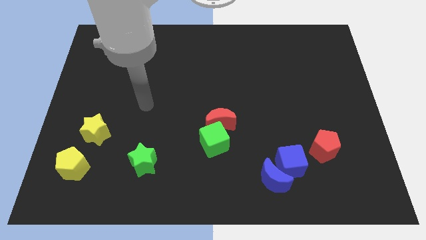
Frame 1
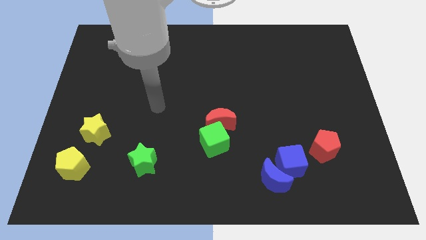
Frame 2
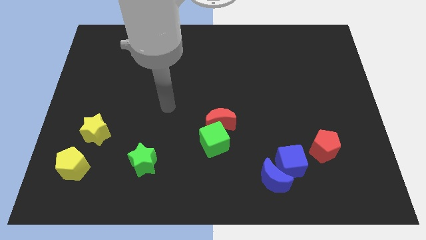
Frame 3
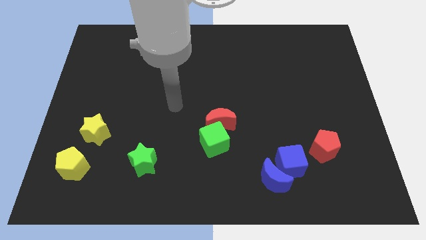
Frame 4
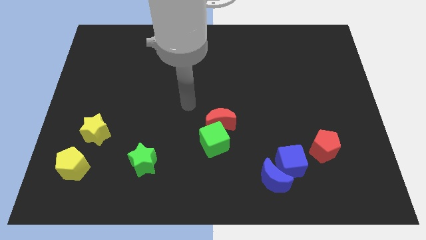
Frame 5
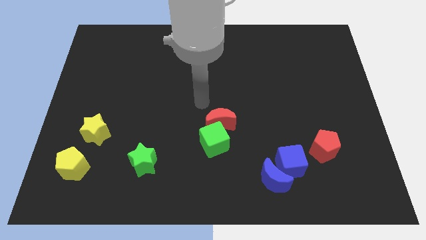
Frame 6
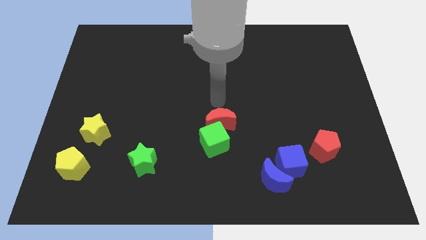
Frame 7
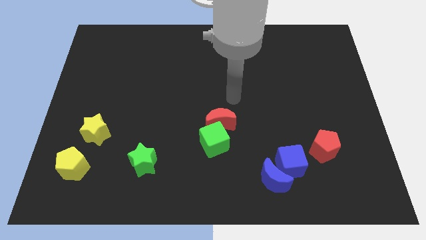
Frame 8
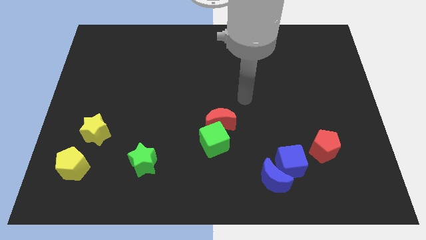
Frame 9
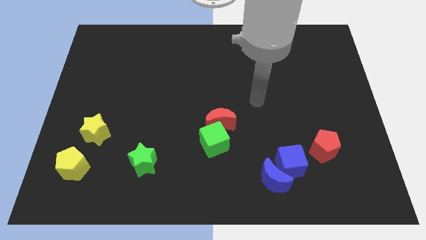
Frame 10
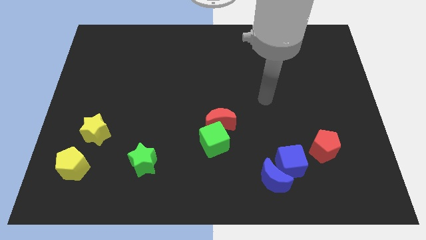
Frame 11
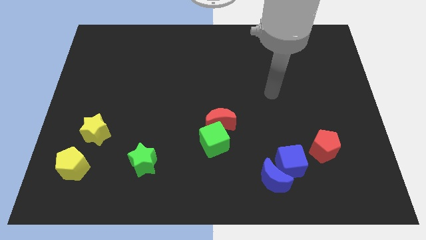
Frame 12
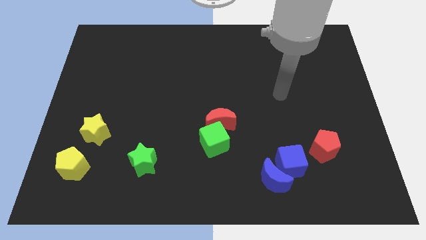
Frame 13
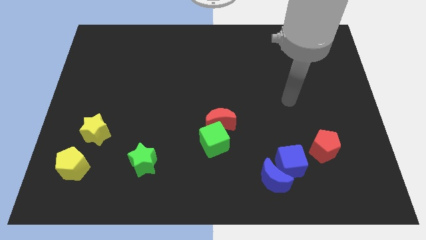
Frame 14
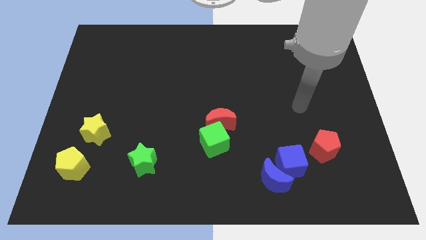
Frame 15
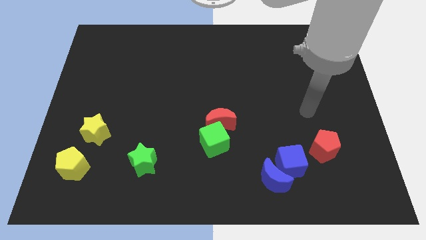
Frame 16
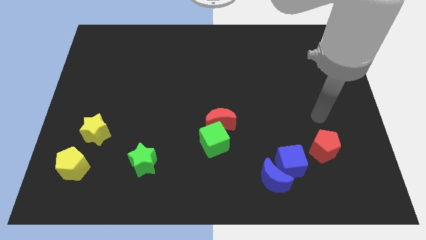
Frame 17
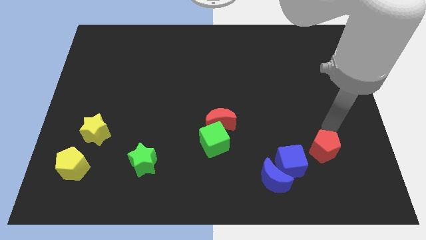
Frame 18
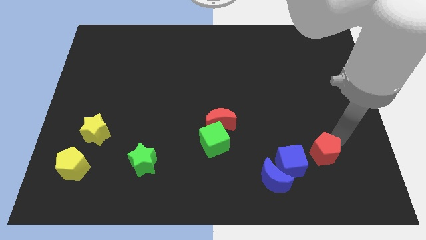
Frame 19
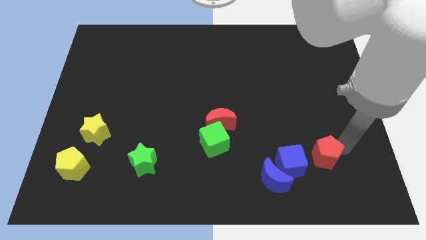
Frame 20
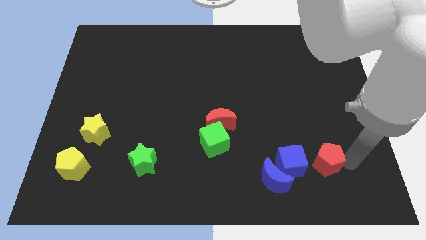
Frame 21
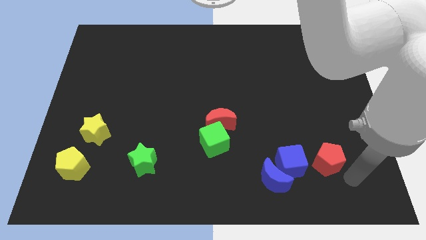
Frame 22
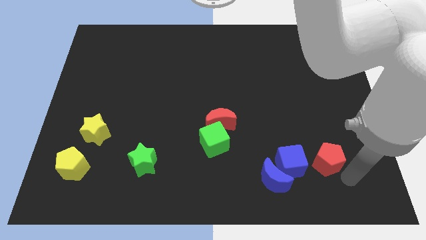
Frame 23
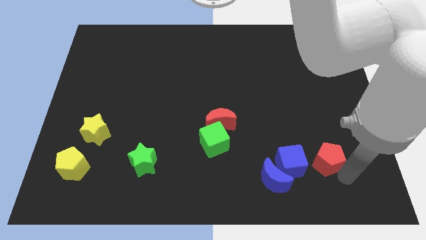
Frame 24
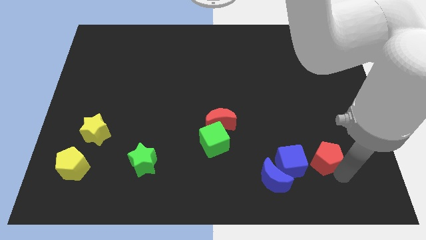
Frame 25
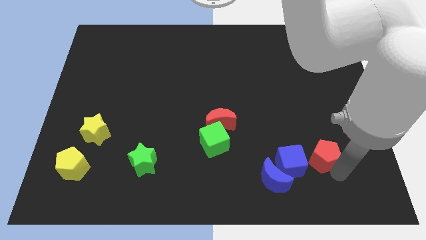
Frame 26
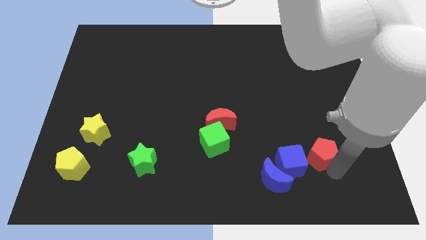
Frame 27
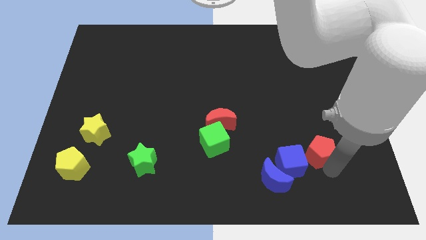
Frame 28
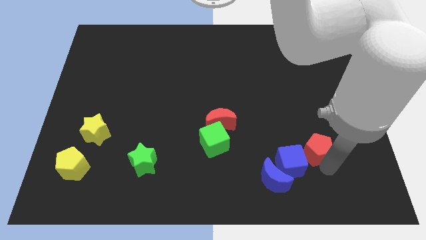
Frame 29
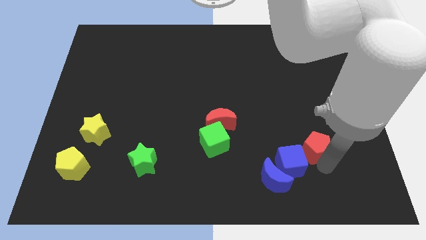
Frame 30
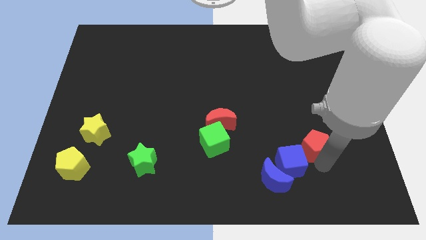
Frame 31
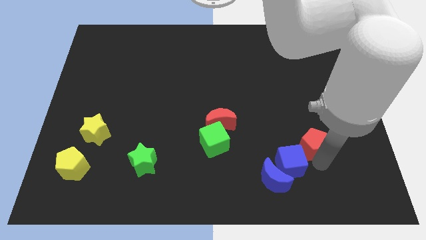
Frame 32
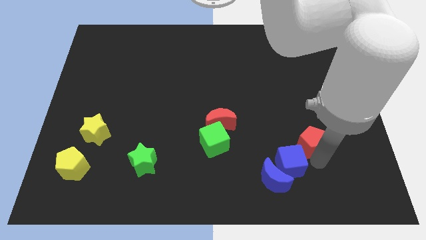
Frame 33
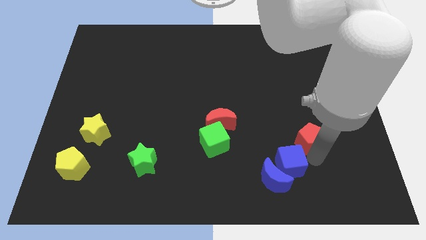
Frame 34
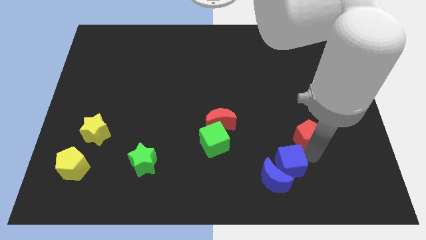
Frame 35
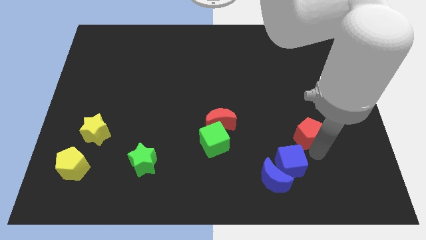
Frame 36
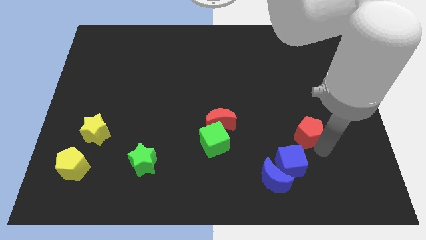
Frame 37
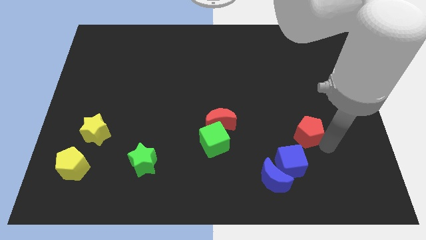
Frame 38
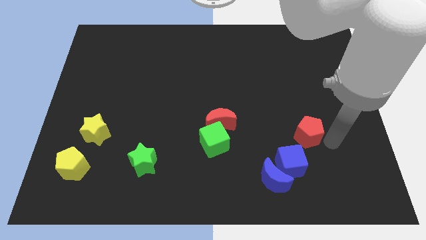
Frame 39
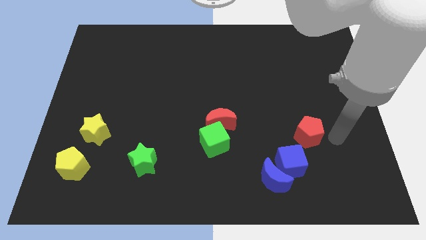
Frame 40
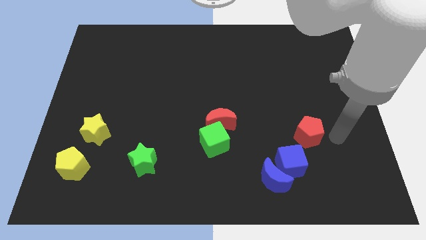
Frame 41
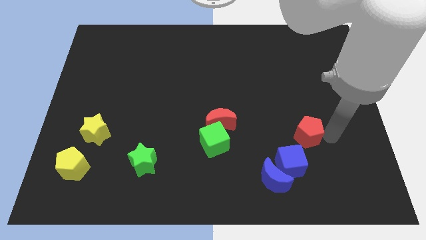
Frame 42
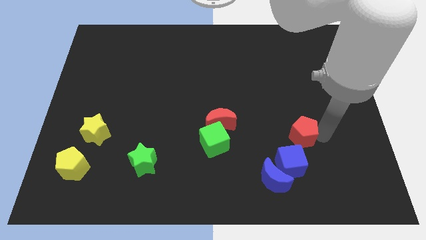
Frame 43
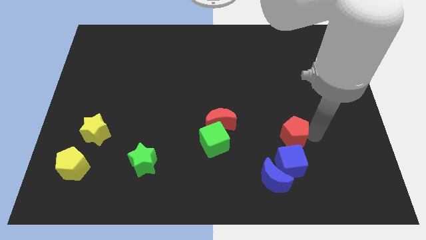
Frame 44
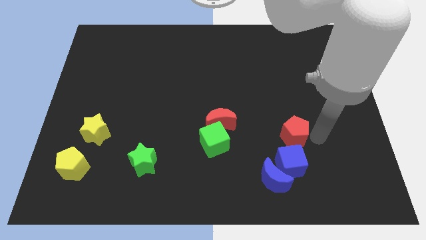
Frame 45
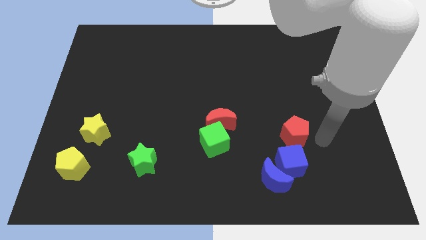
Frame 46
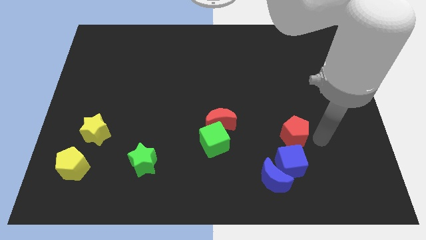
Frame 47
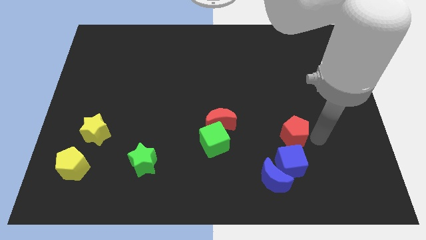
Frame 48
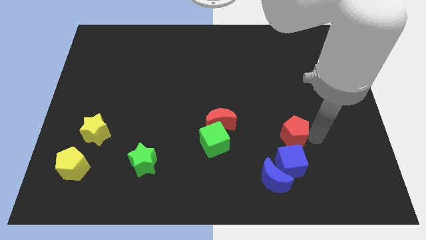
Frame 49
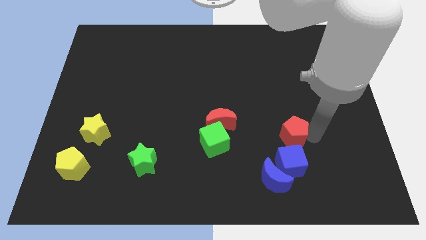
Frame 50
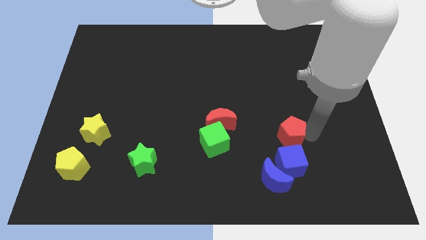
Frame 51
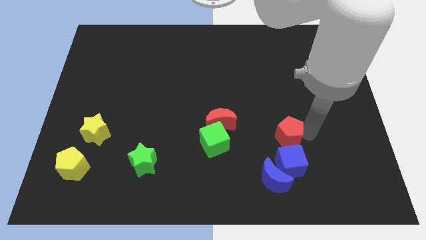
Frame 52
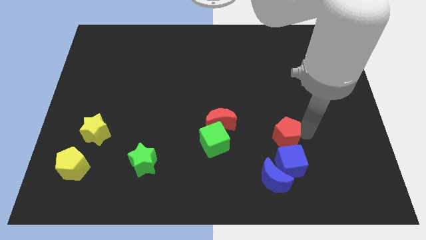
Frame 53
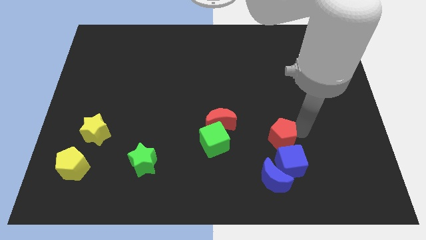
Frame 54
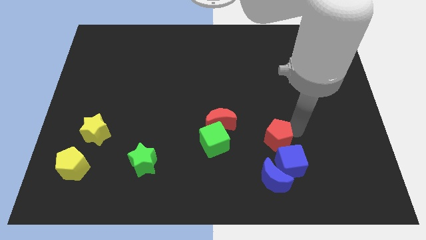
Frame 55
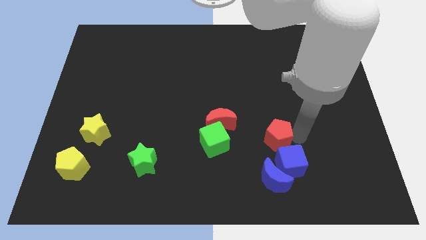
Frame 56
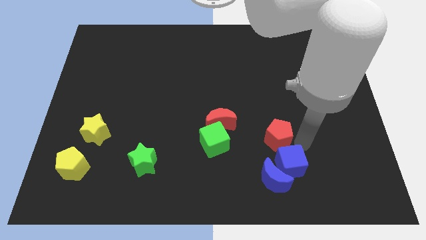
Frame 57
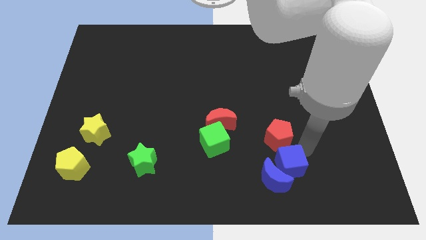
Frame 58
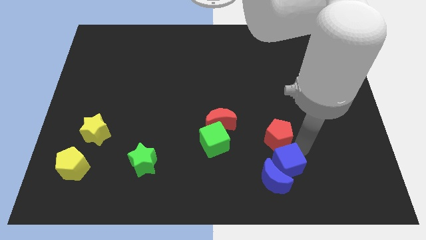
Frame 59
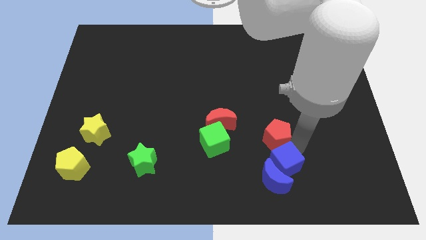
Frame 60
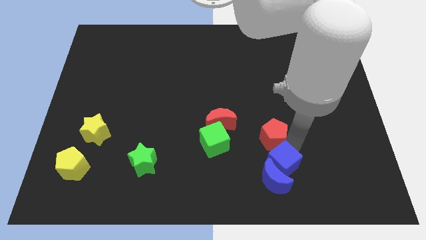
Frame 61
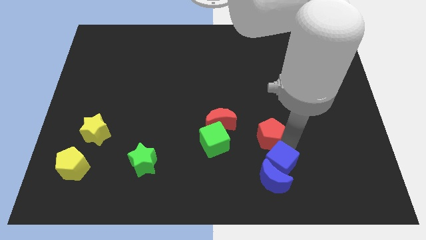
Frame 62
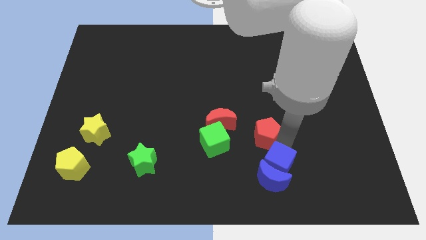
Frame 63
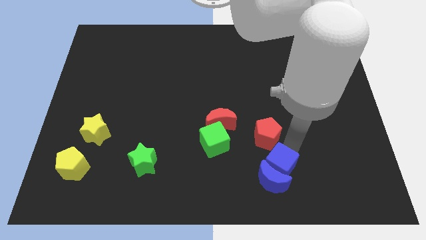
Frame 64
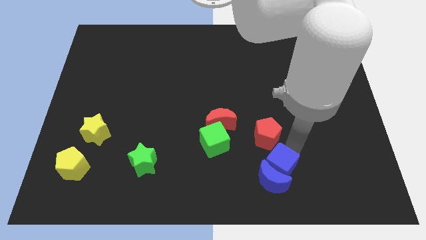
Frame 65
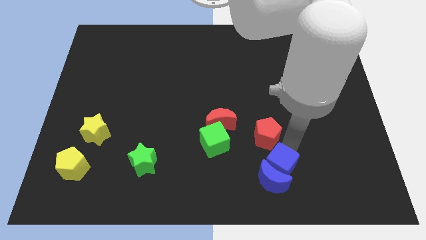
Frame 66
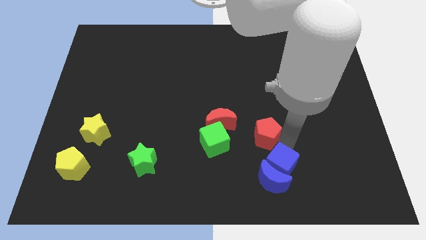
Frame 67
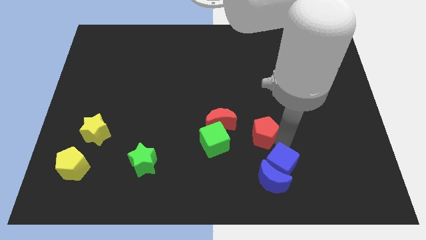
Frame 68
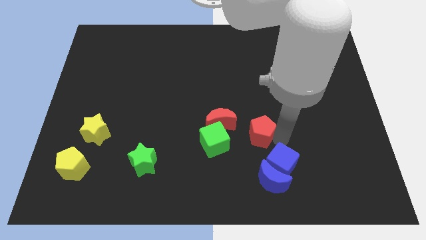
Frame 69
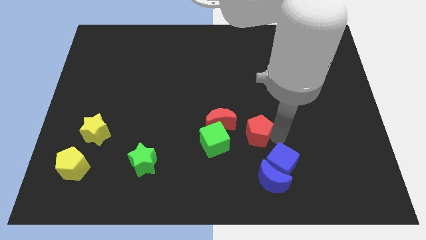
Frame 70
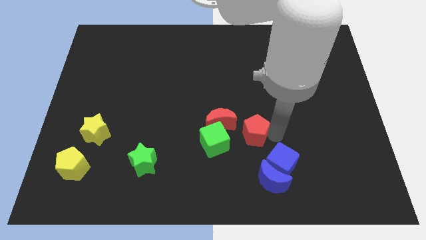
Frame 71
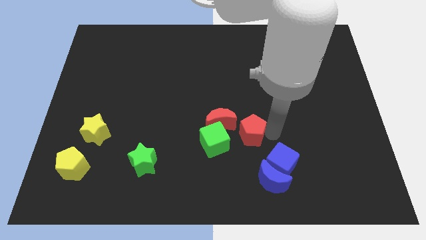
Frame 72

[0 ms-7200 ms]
move the red pentagon to the center of the board
